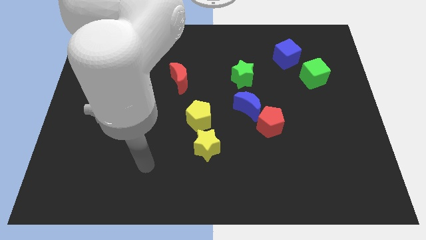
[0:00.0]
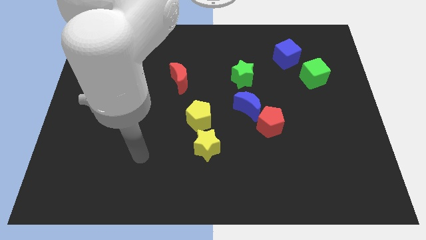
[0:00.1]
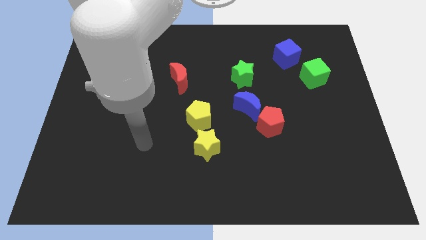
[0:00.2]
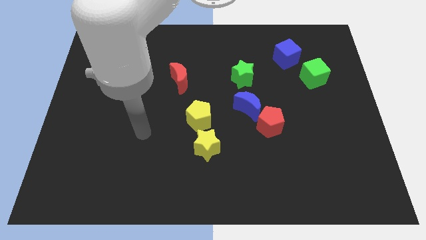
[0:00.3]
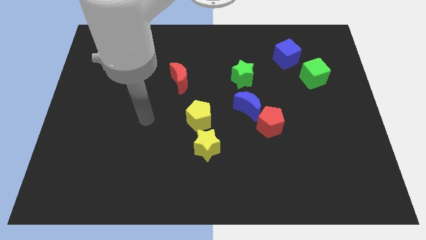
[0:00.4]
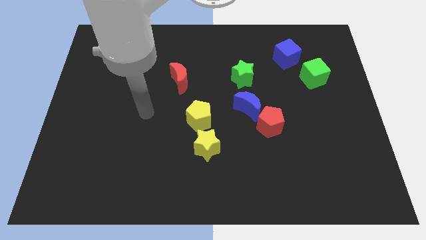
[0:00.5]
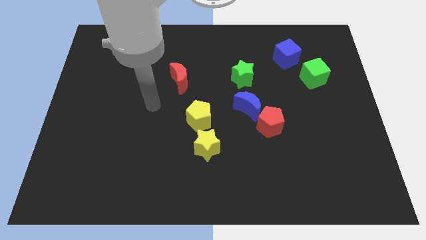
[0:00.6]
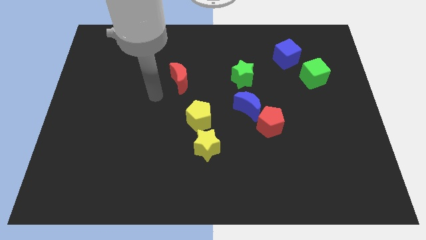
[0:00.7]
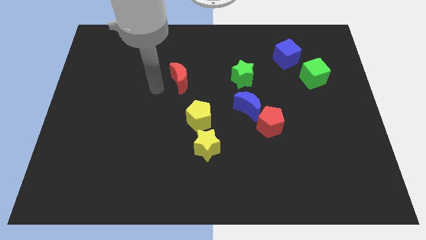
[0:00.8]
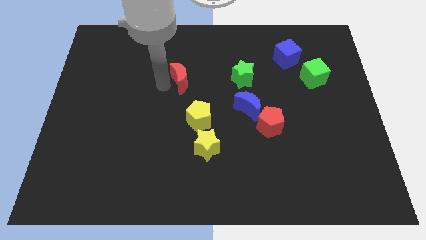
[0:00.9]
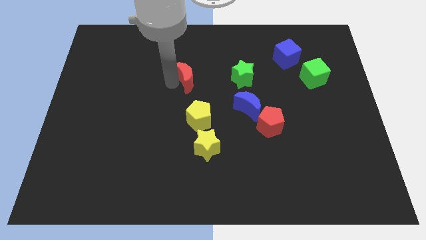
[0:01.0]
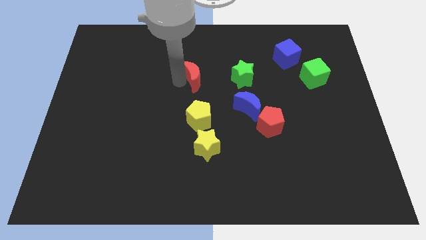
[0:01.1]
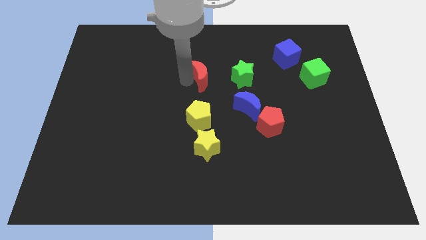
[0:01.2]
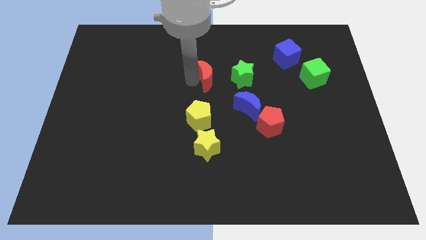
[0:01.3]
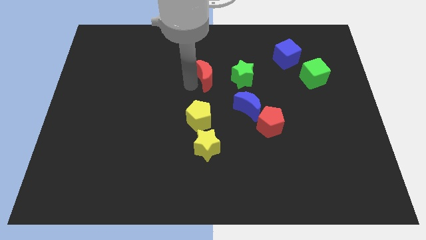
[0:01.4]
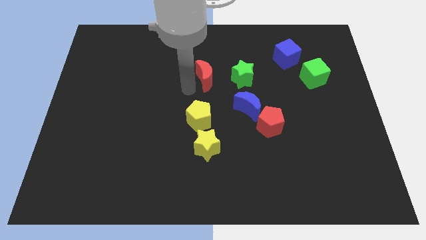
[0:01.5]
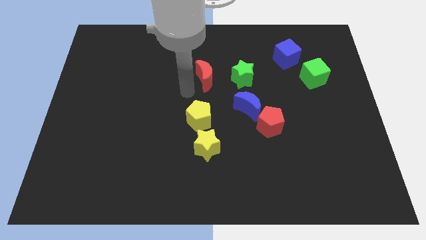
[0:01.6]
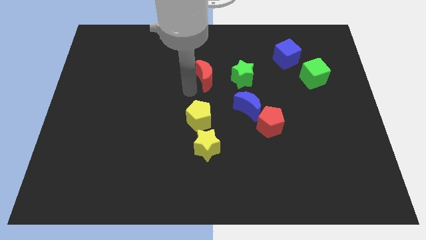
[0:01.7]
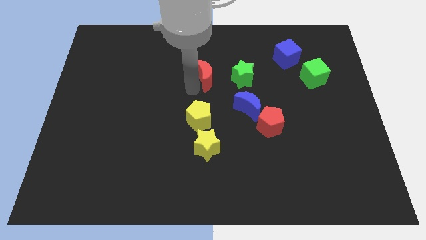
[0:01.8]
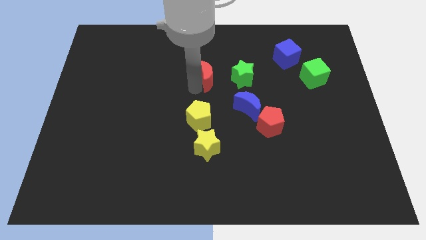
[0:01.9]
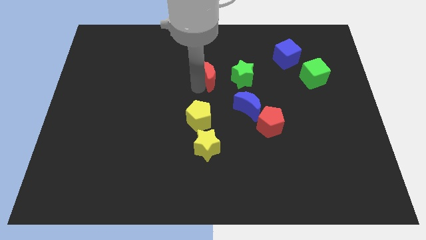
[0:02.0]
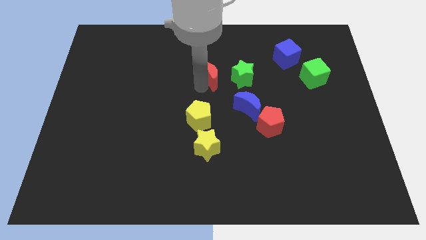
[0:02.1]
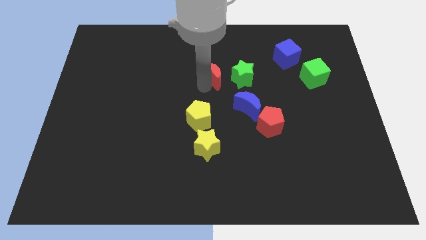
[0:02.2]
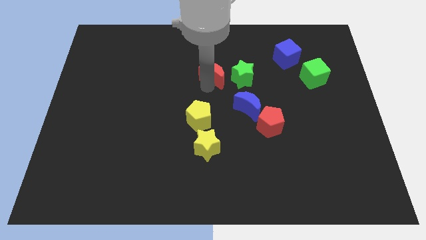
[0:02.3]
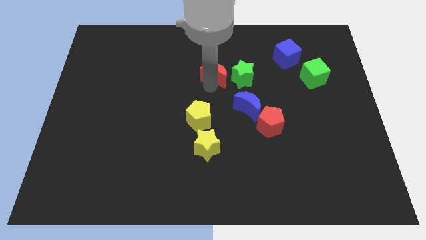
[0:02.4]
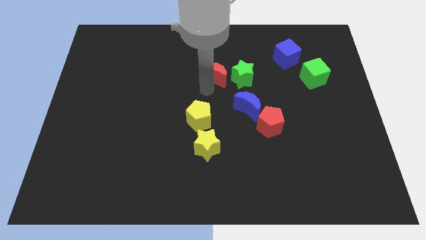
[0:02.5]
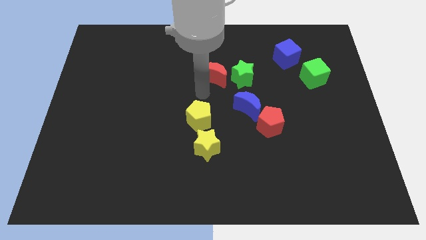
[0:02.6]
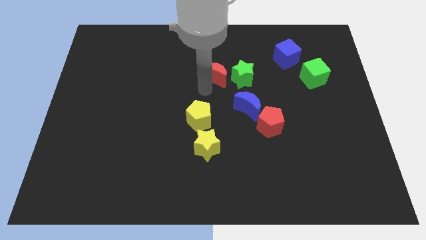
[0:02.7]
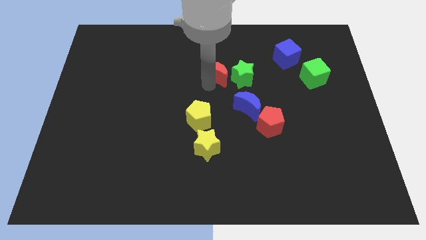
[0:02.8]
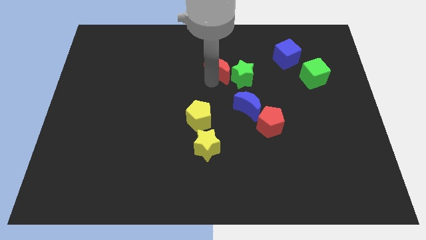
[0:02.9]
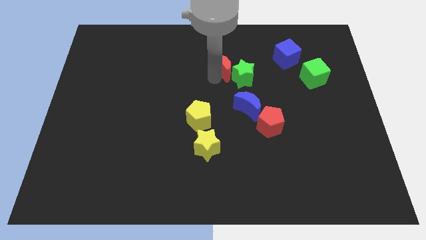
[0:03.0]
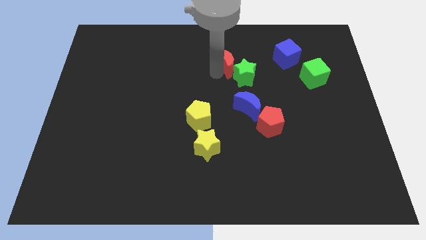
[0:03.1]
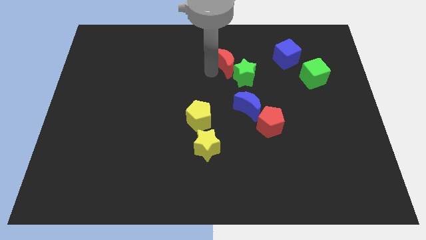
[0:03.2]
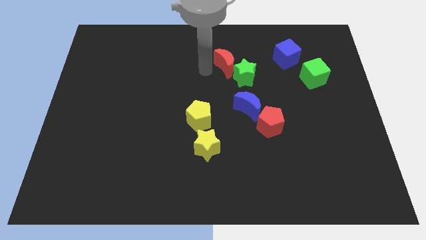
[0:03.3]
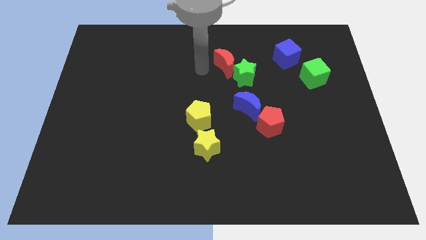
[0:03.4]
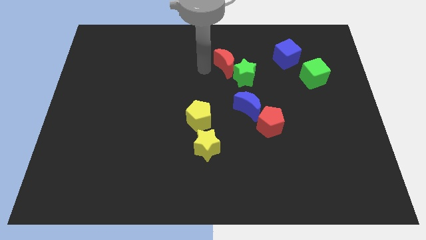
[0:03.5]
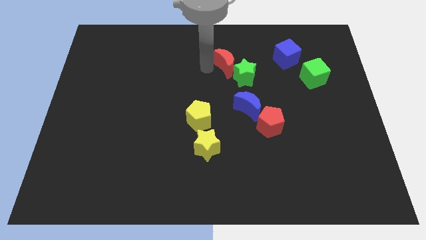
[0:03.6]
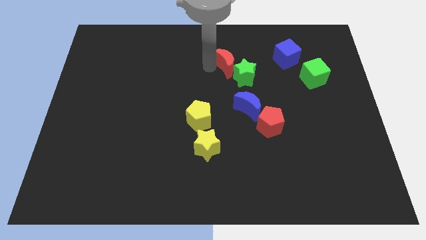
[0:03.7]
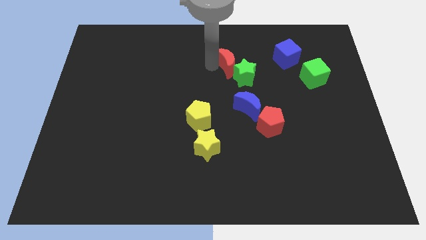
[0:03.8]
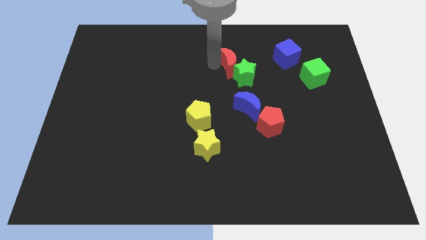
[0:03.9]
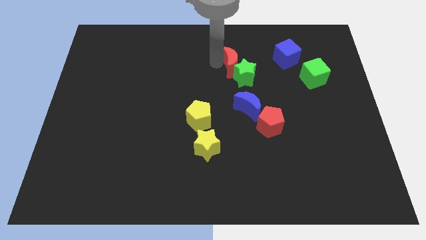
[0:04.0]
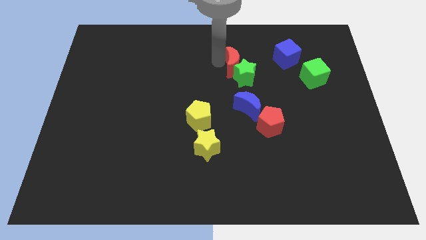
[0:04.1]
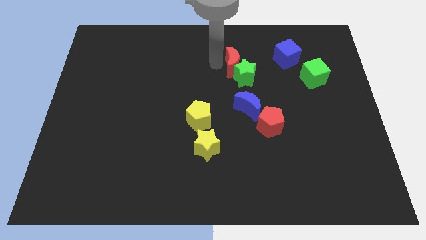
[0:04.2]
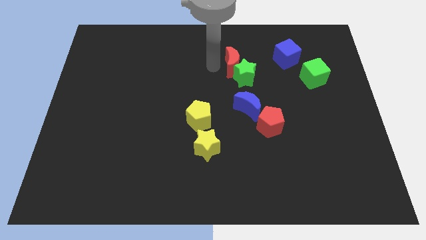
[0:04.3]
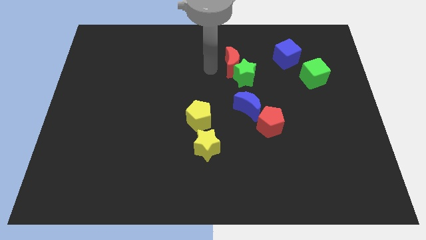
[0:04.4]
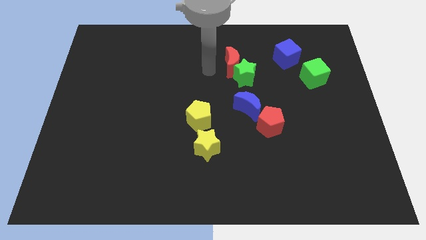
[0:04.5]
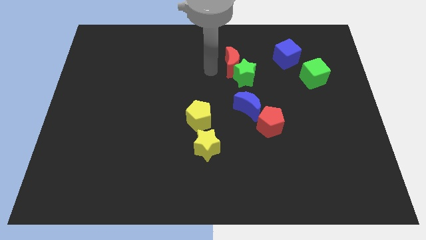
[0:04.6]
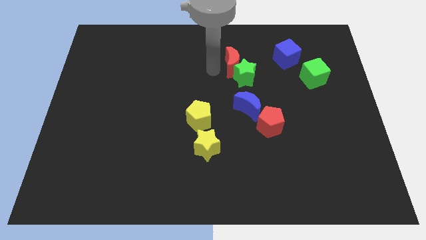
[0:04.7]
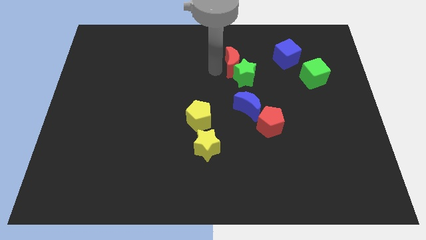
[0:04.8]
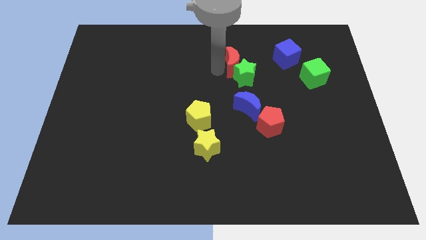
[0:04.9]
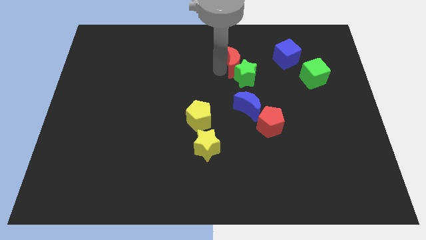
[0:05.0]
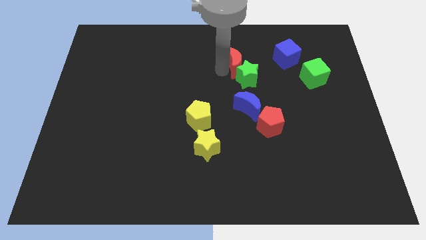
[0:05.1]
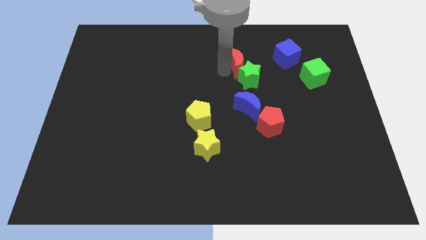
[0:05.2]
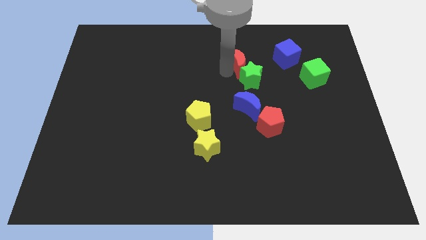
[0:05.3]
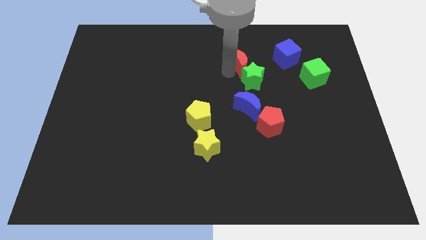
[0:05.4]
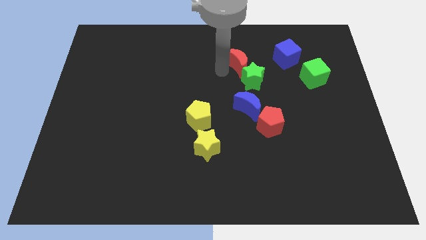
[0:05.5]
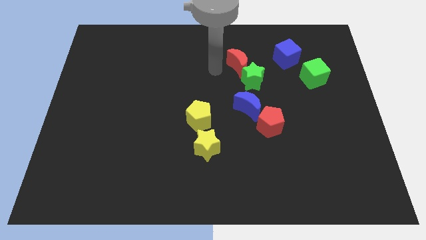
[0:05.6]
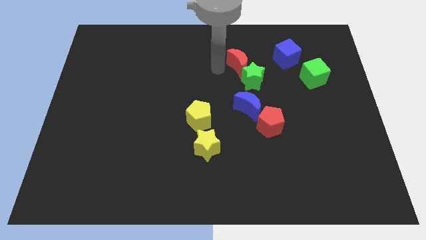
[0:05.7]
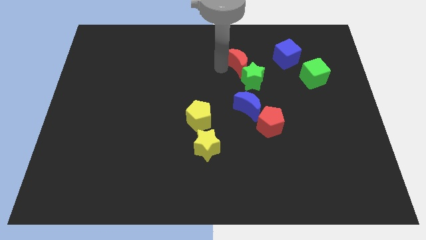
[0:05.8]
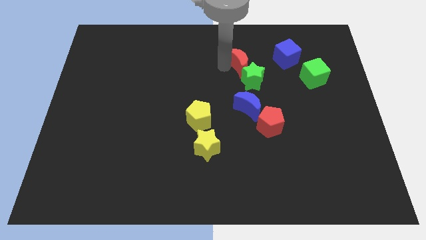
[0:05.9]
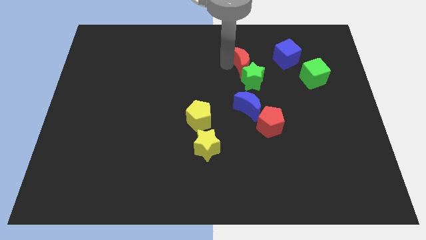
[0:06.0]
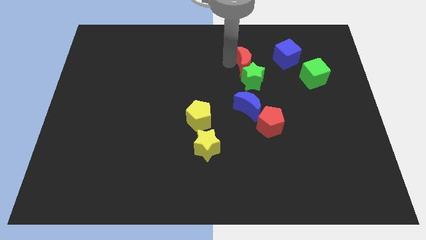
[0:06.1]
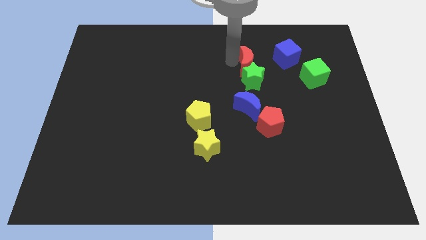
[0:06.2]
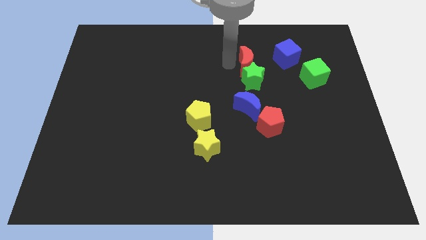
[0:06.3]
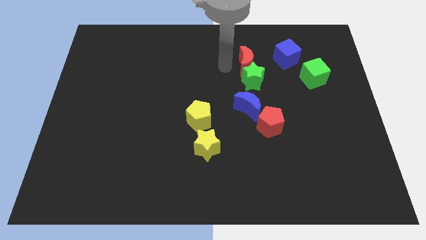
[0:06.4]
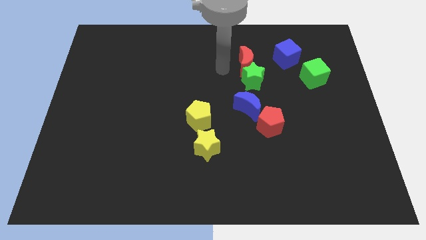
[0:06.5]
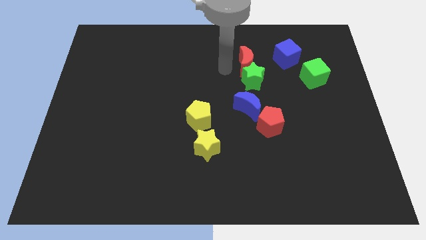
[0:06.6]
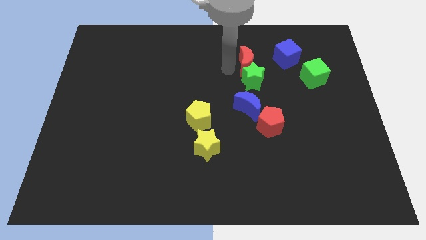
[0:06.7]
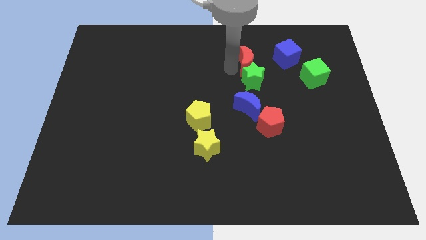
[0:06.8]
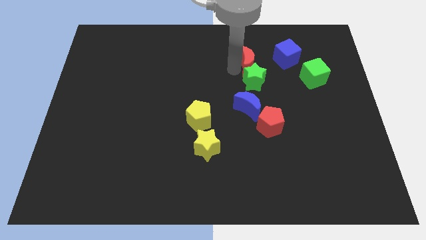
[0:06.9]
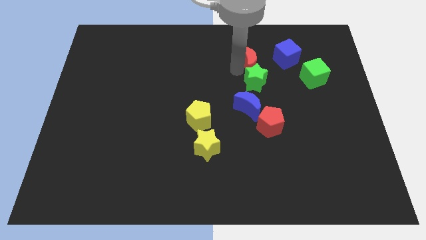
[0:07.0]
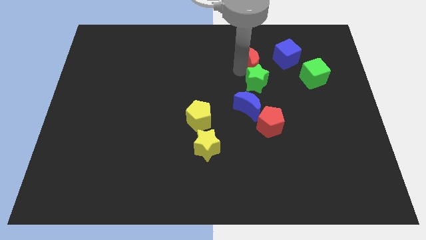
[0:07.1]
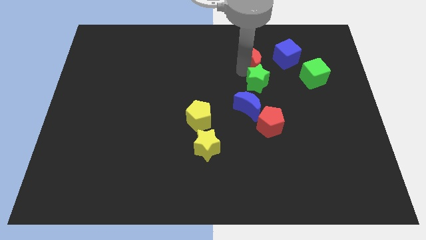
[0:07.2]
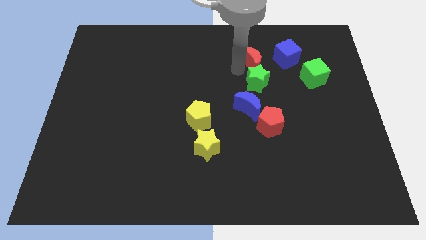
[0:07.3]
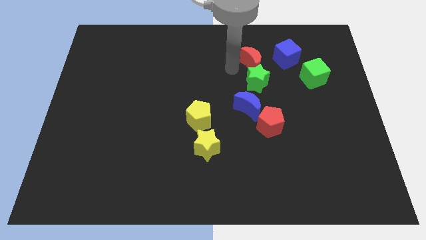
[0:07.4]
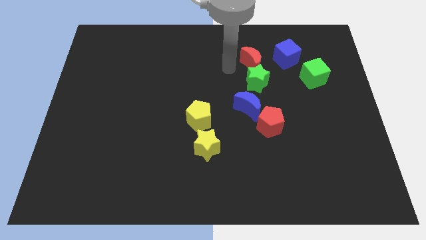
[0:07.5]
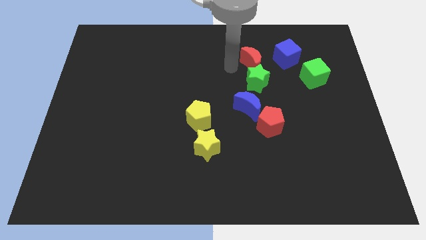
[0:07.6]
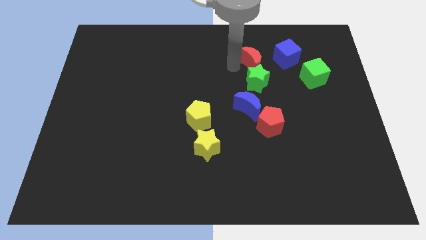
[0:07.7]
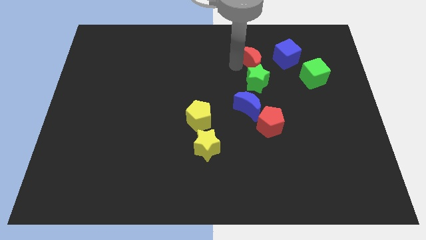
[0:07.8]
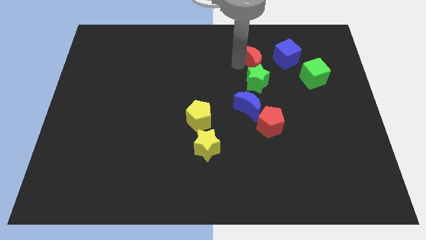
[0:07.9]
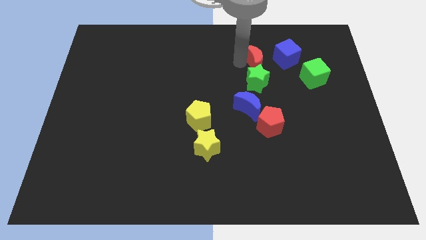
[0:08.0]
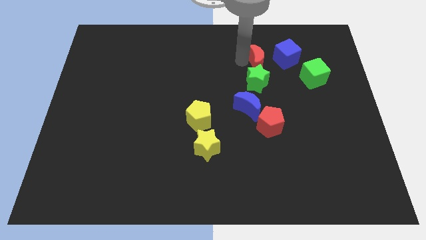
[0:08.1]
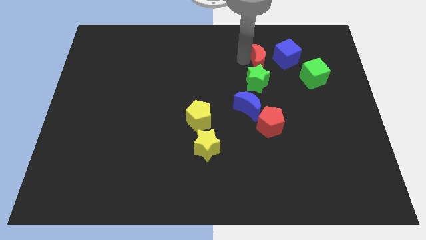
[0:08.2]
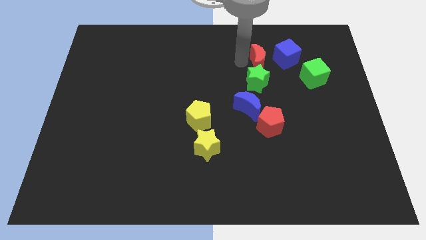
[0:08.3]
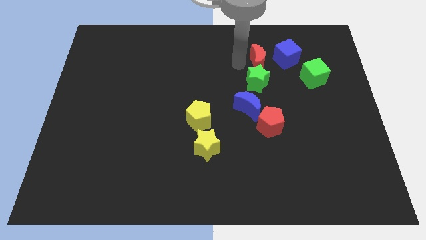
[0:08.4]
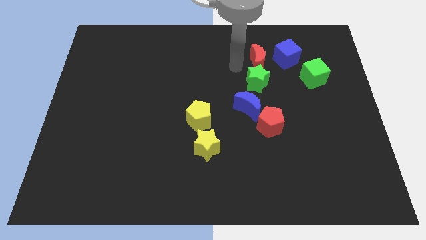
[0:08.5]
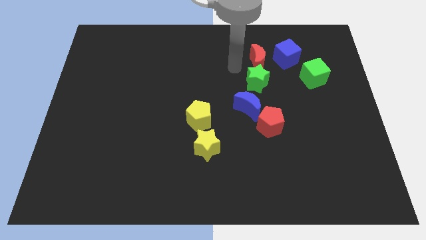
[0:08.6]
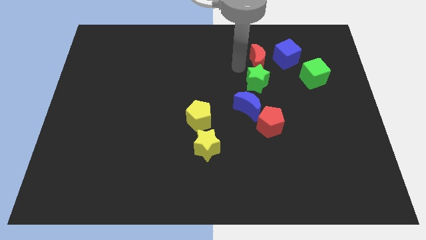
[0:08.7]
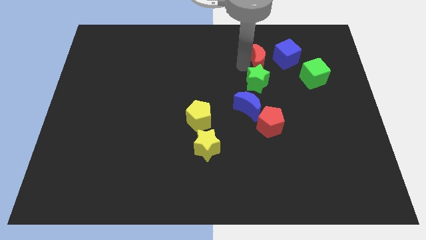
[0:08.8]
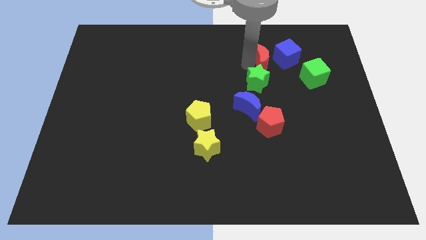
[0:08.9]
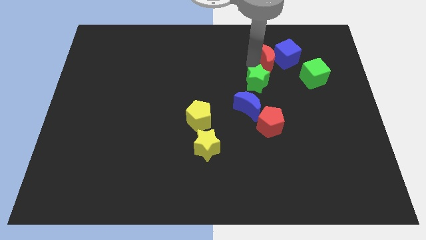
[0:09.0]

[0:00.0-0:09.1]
slide the red moon to the blue cube
